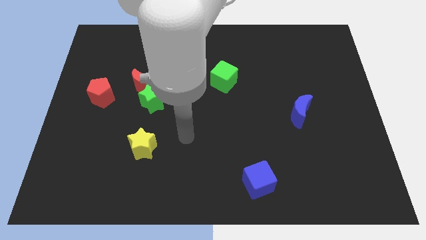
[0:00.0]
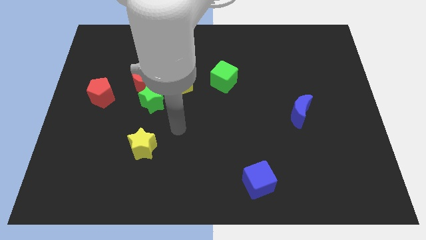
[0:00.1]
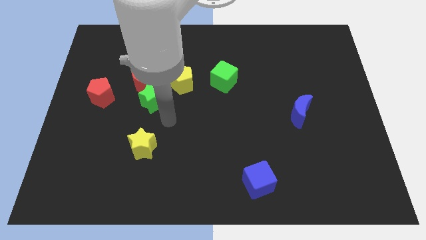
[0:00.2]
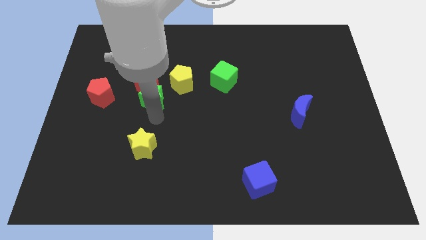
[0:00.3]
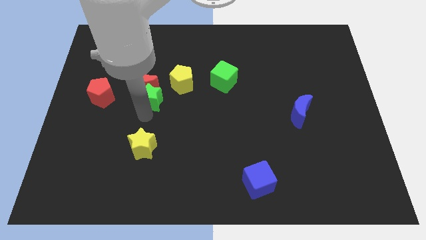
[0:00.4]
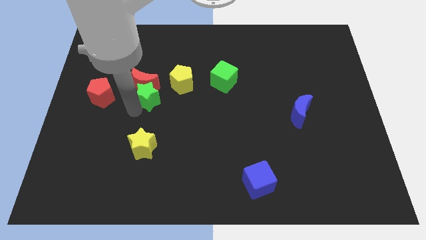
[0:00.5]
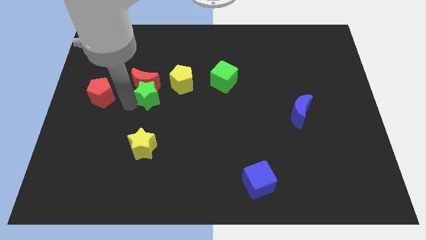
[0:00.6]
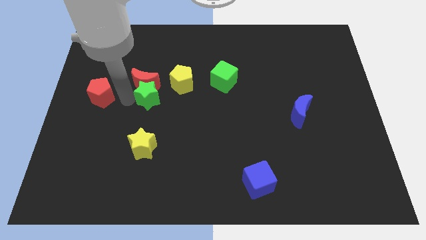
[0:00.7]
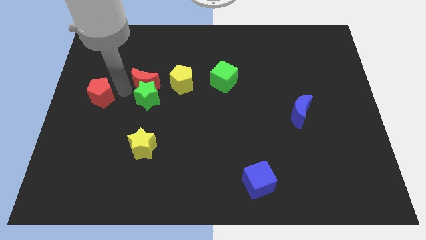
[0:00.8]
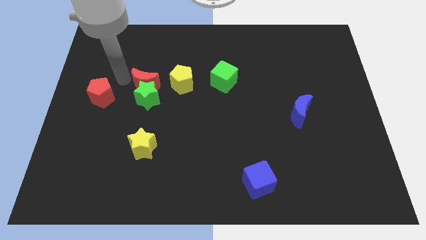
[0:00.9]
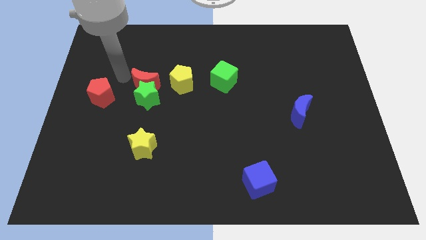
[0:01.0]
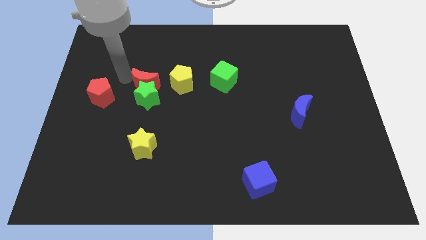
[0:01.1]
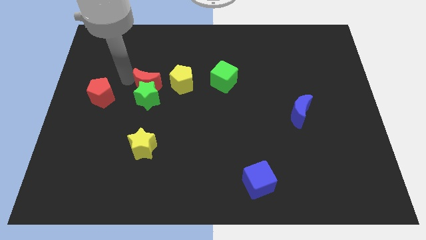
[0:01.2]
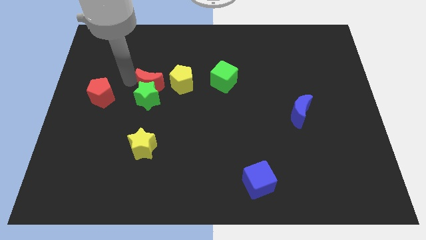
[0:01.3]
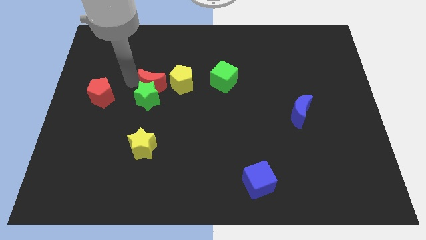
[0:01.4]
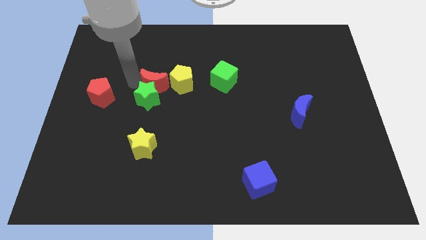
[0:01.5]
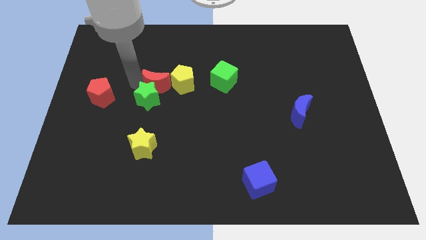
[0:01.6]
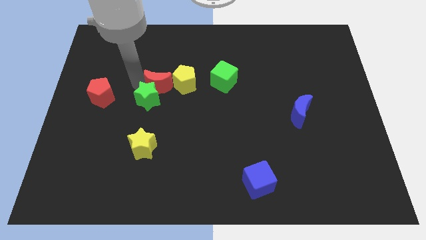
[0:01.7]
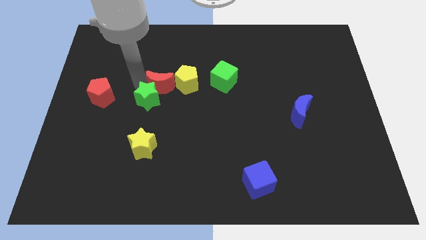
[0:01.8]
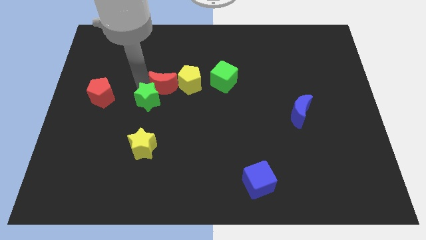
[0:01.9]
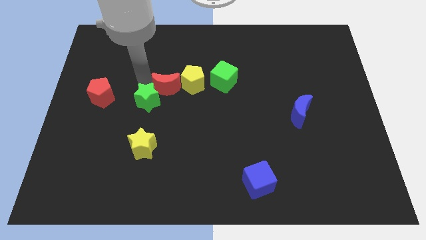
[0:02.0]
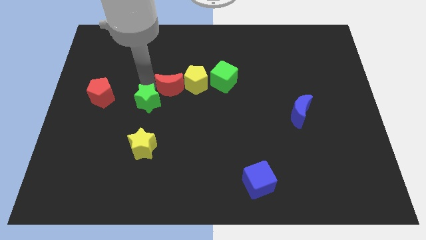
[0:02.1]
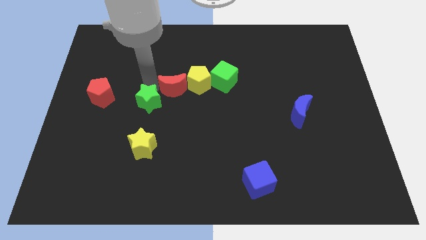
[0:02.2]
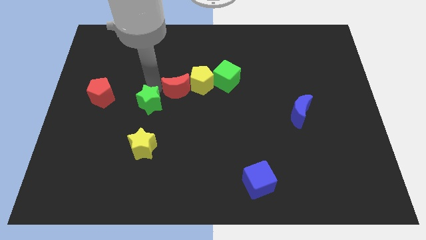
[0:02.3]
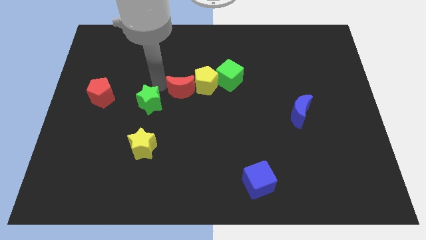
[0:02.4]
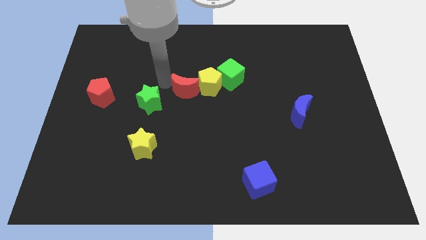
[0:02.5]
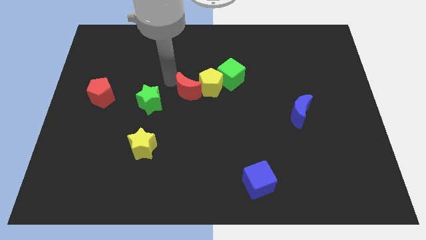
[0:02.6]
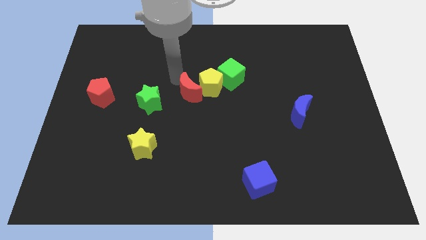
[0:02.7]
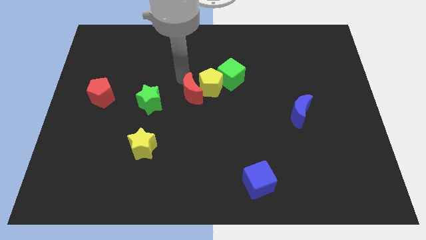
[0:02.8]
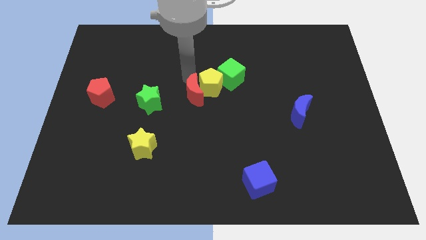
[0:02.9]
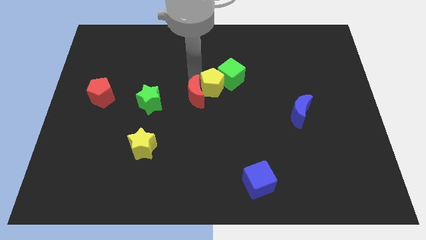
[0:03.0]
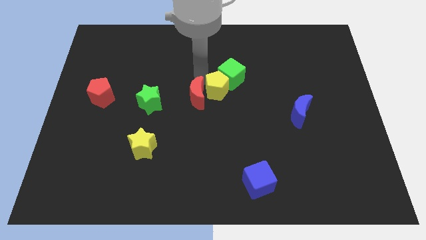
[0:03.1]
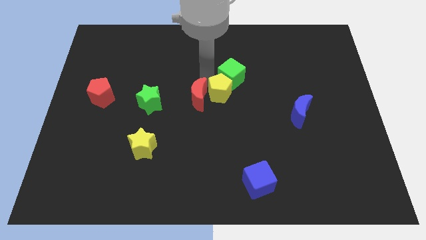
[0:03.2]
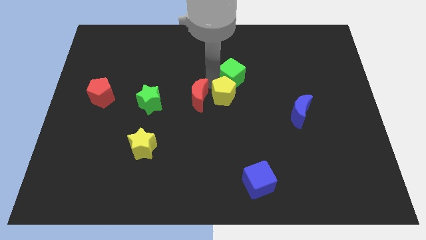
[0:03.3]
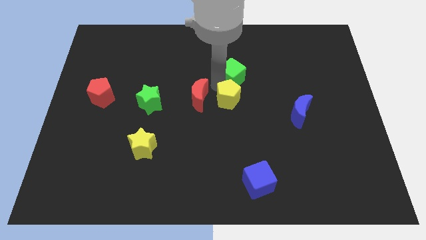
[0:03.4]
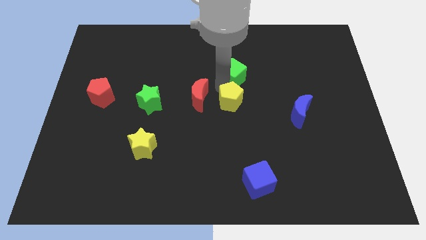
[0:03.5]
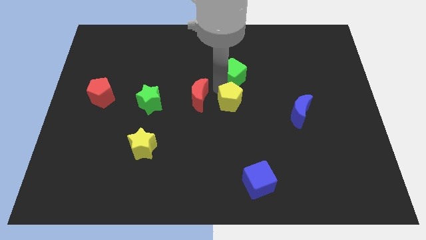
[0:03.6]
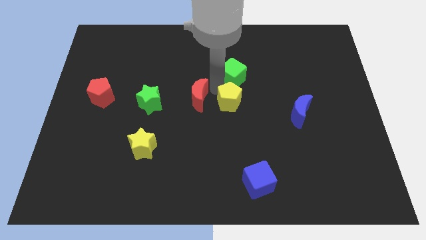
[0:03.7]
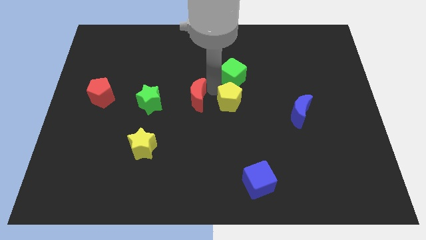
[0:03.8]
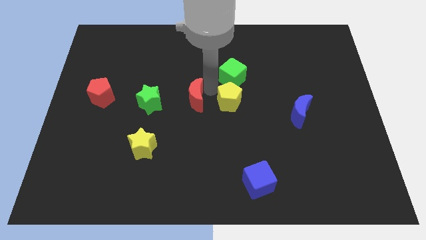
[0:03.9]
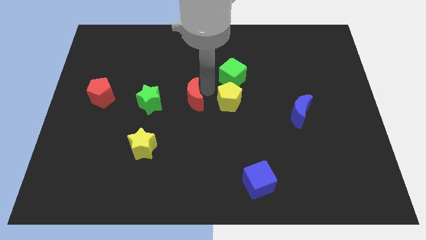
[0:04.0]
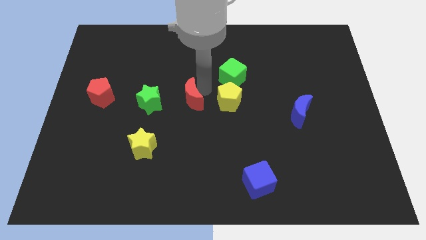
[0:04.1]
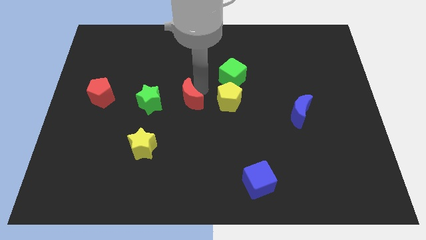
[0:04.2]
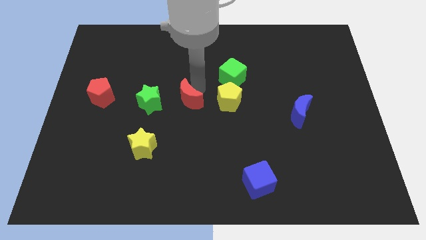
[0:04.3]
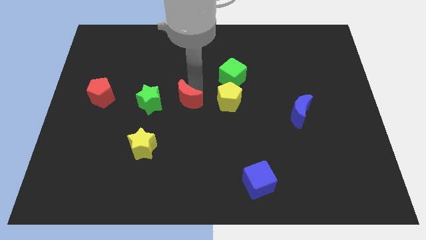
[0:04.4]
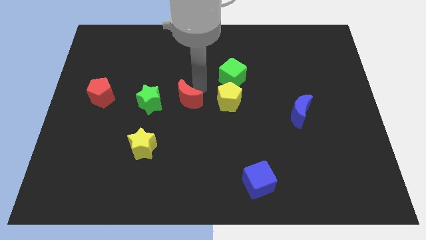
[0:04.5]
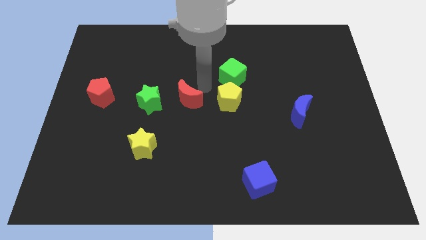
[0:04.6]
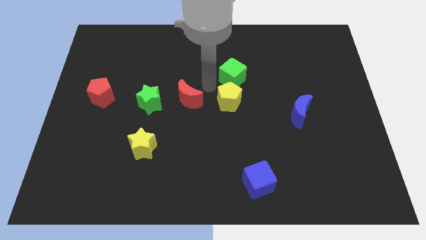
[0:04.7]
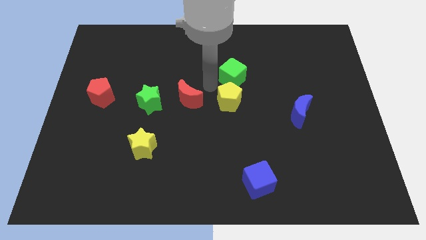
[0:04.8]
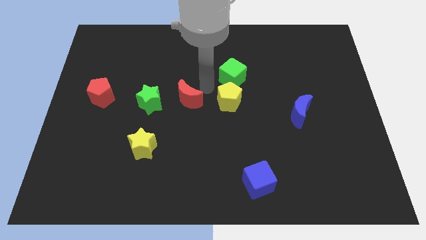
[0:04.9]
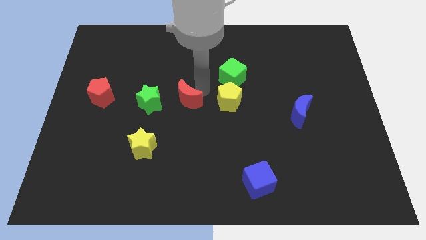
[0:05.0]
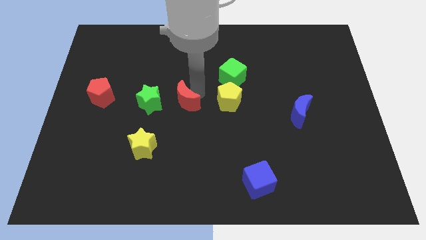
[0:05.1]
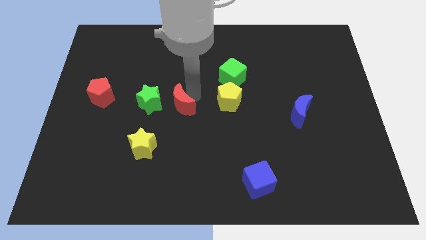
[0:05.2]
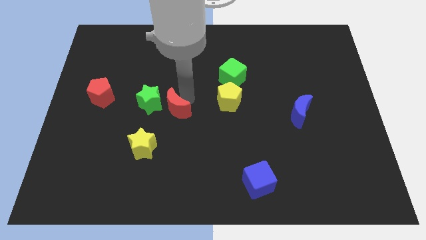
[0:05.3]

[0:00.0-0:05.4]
push the red moon to the top right side of the yellow star

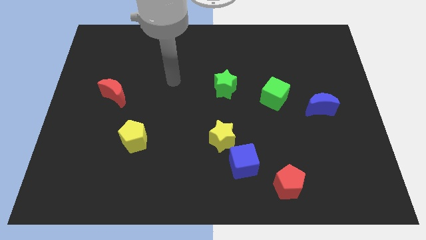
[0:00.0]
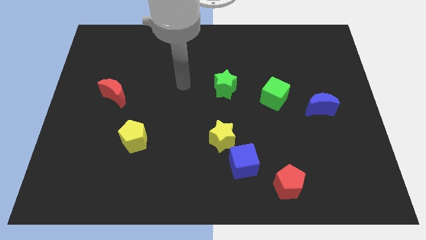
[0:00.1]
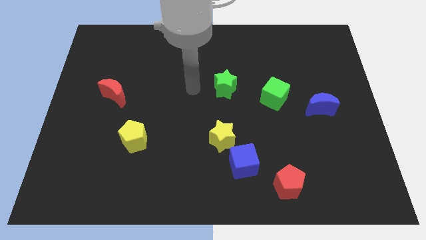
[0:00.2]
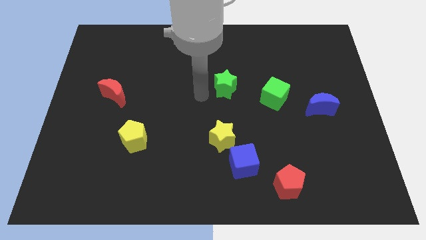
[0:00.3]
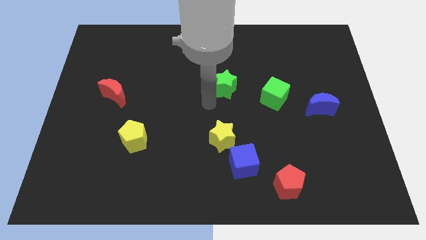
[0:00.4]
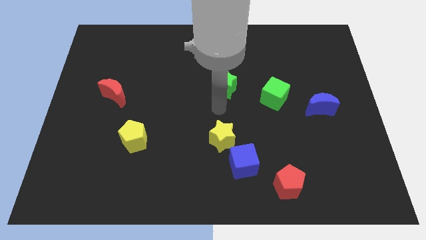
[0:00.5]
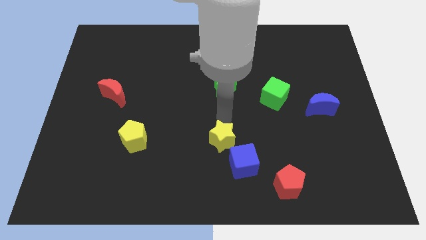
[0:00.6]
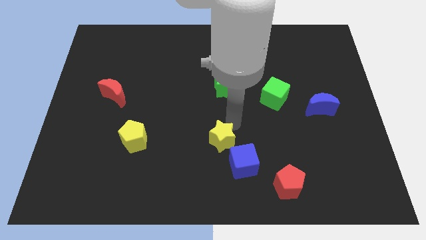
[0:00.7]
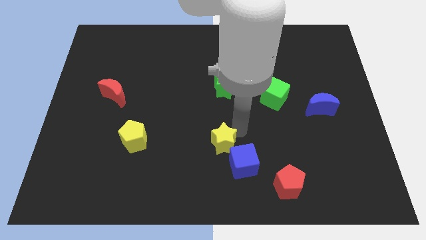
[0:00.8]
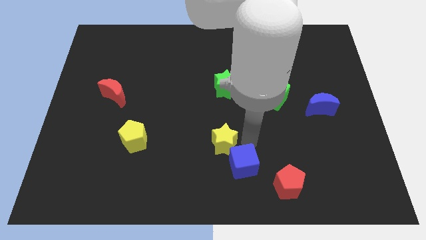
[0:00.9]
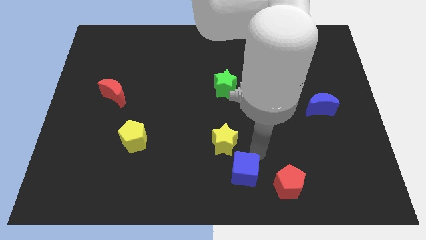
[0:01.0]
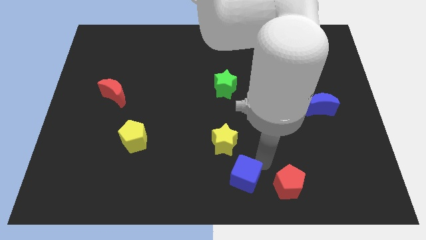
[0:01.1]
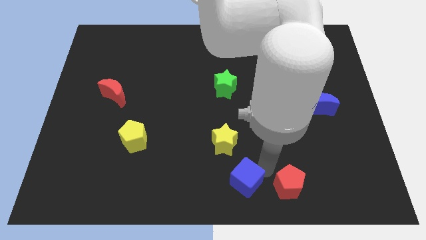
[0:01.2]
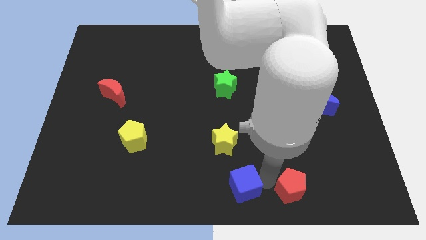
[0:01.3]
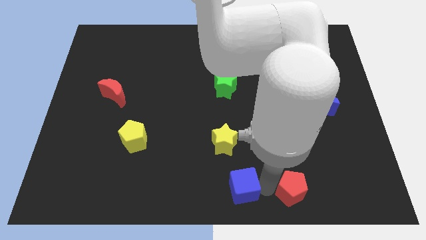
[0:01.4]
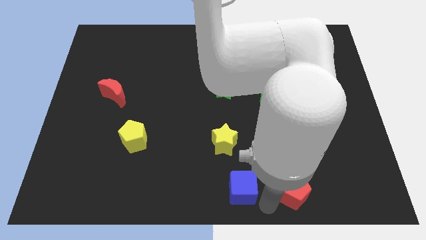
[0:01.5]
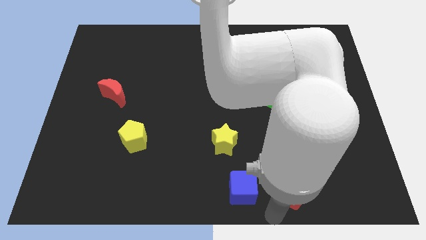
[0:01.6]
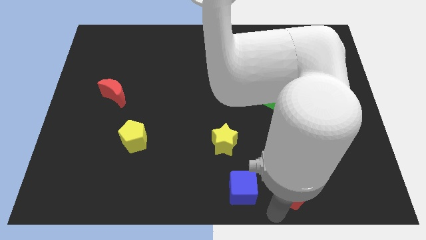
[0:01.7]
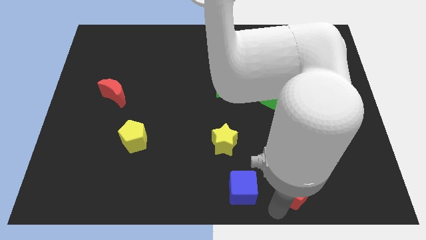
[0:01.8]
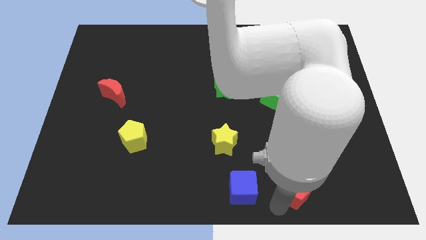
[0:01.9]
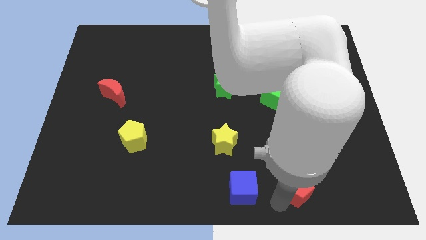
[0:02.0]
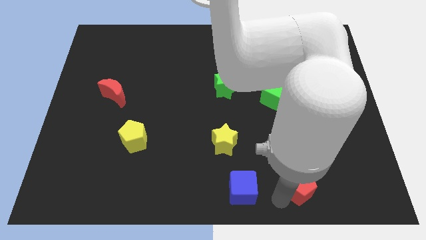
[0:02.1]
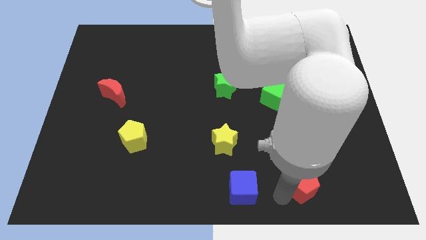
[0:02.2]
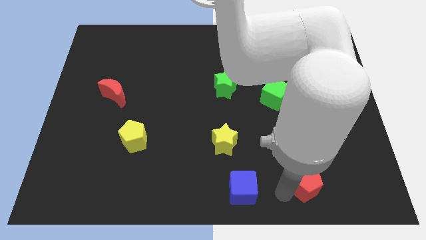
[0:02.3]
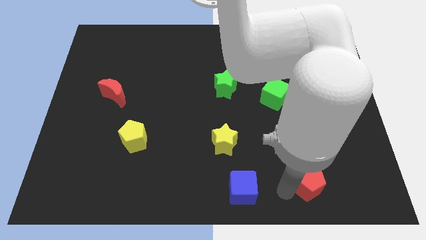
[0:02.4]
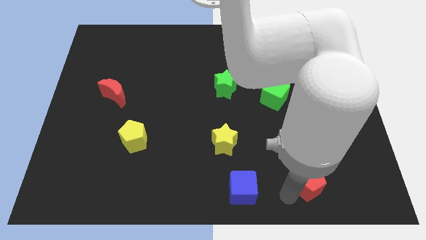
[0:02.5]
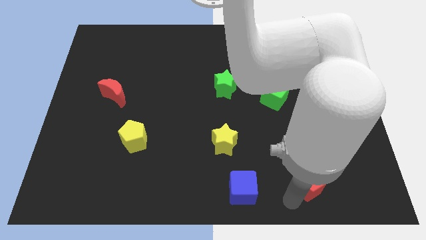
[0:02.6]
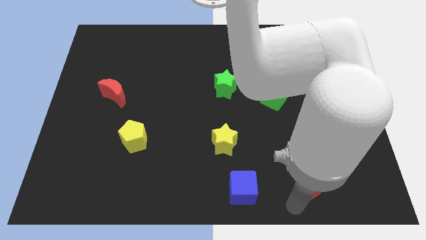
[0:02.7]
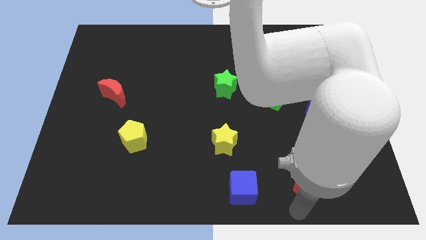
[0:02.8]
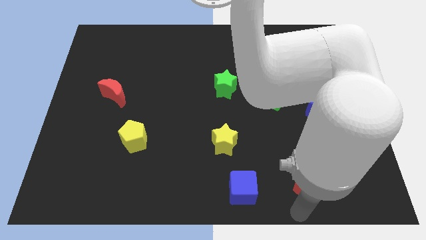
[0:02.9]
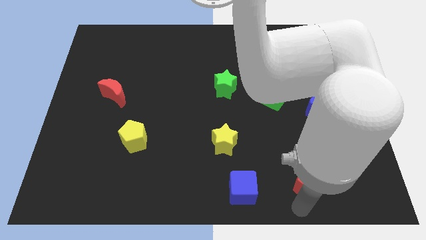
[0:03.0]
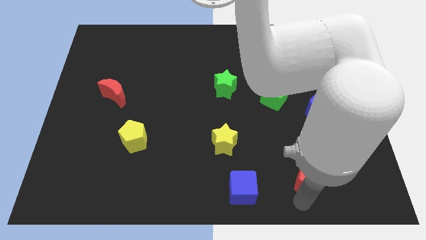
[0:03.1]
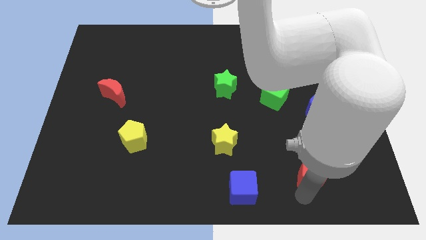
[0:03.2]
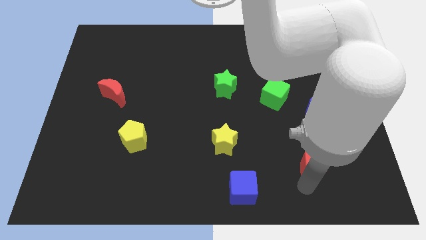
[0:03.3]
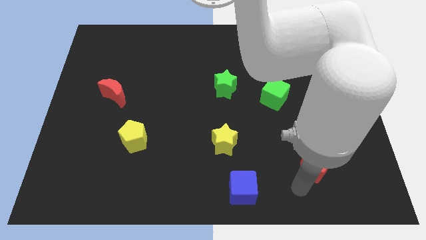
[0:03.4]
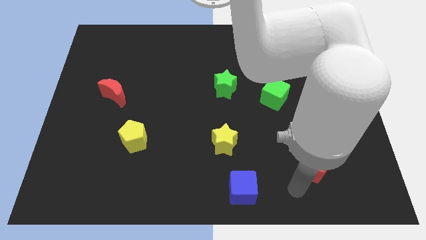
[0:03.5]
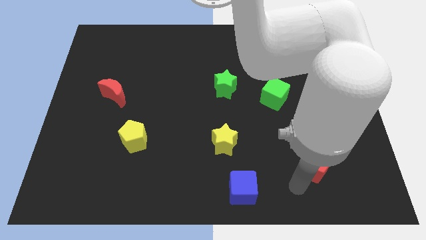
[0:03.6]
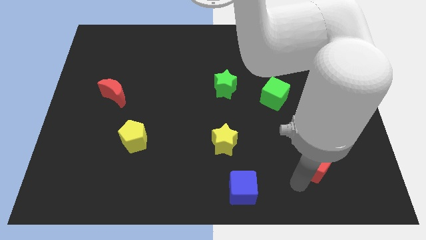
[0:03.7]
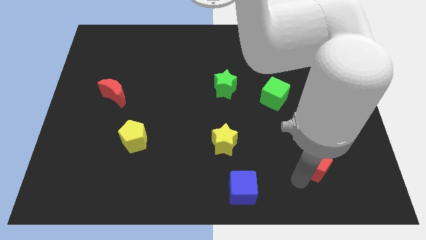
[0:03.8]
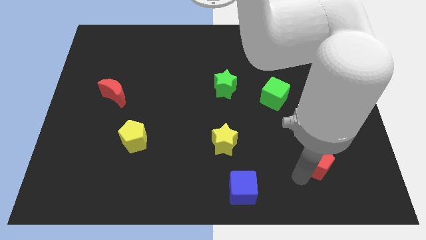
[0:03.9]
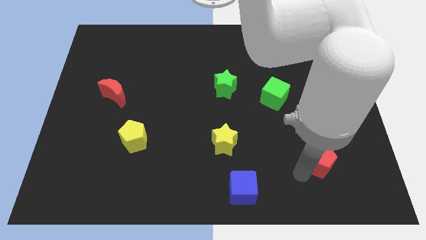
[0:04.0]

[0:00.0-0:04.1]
move the red pentagon below the blue moon
